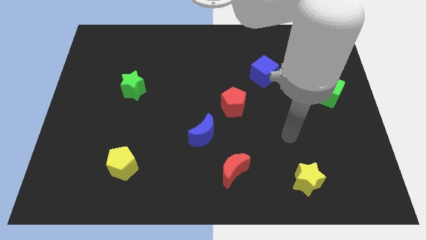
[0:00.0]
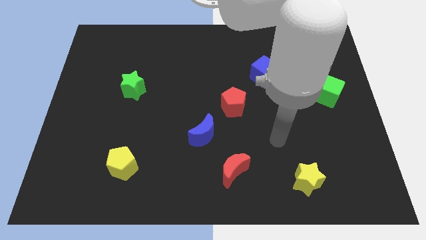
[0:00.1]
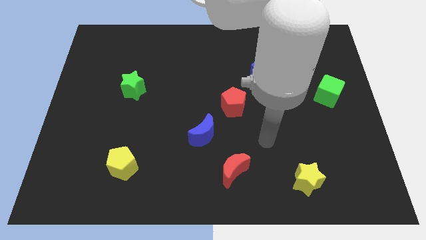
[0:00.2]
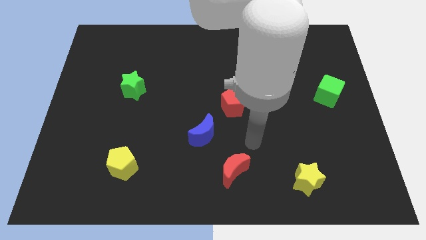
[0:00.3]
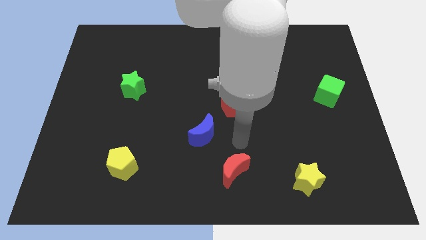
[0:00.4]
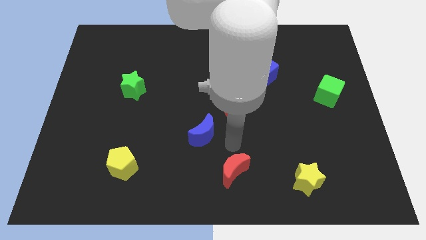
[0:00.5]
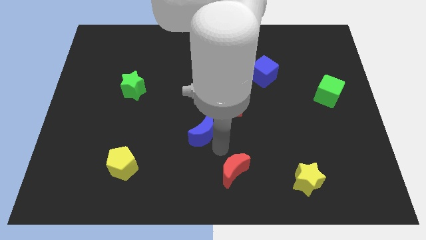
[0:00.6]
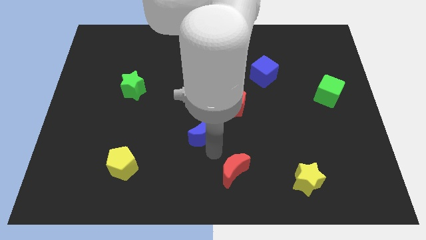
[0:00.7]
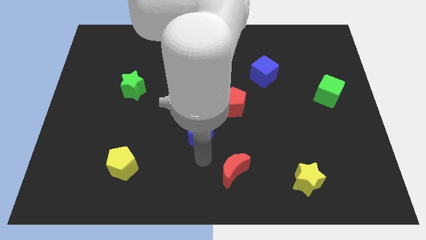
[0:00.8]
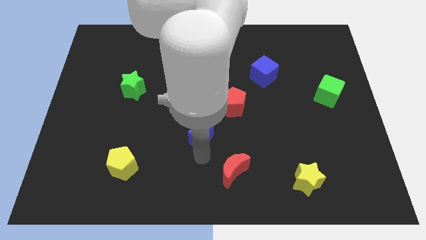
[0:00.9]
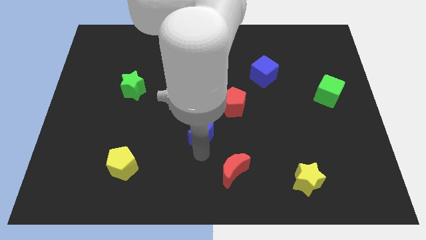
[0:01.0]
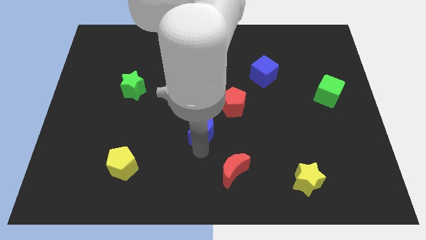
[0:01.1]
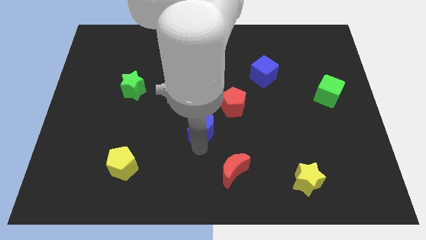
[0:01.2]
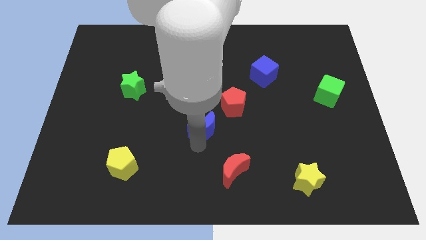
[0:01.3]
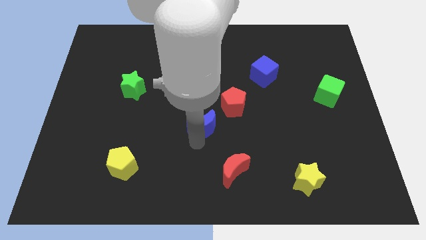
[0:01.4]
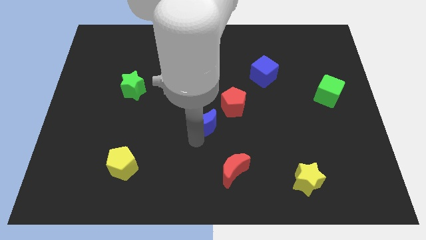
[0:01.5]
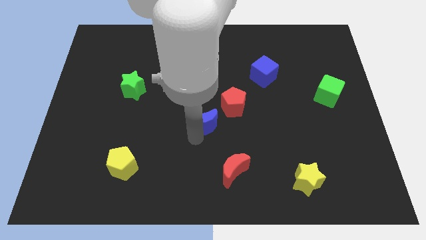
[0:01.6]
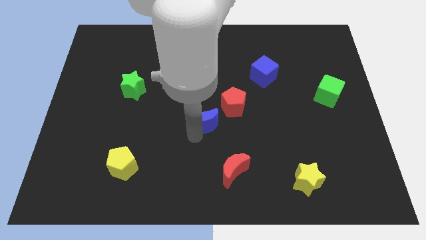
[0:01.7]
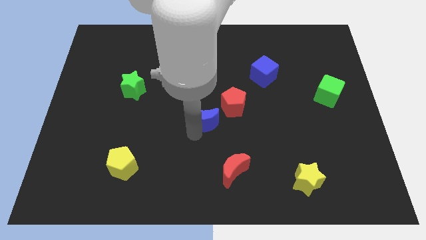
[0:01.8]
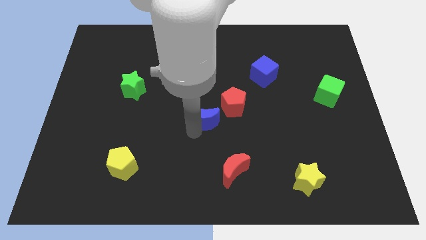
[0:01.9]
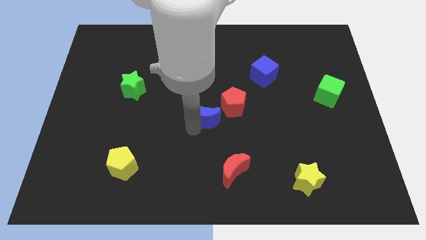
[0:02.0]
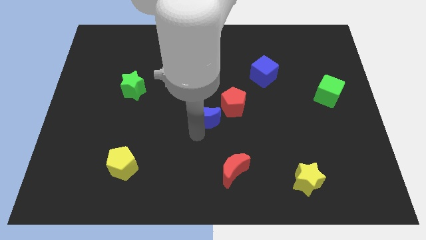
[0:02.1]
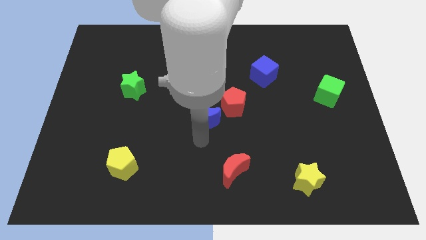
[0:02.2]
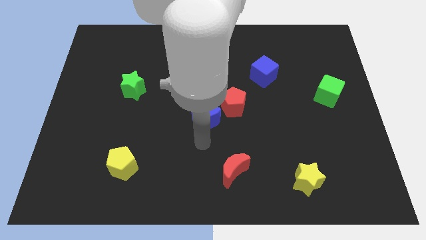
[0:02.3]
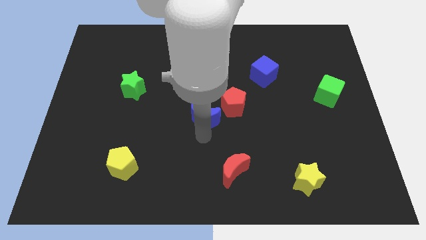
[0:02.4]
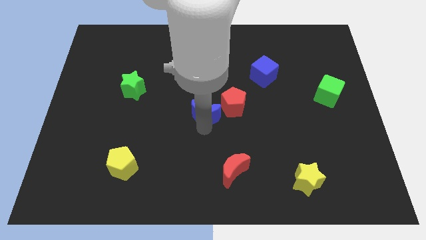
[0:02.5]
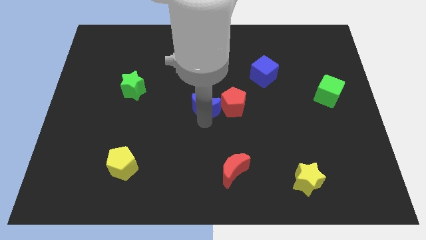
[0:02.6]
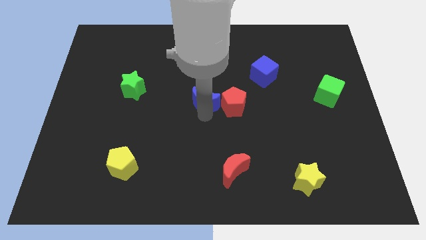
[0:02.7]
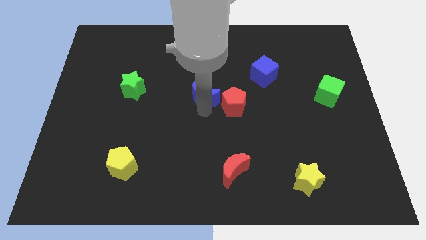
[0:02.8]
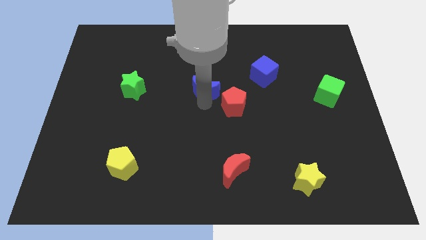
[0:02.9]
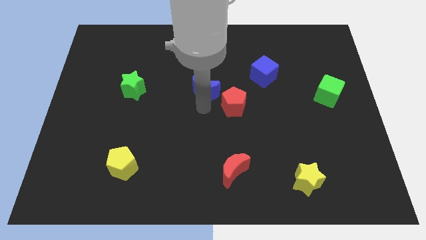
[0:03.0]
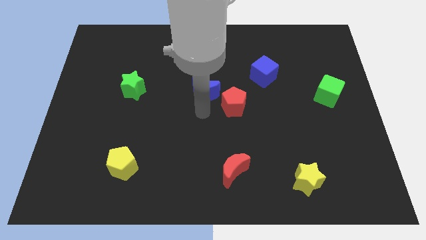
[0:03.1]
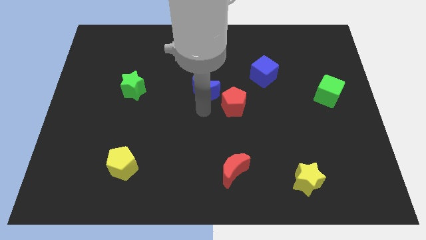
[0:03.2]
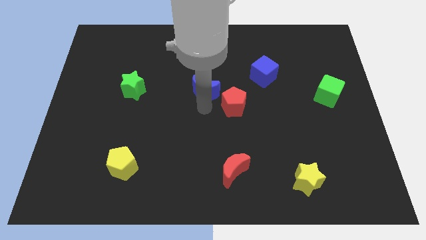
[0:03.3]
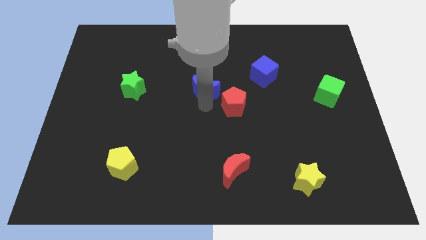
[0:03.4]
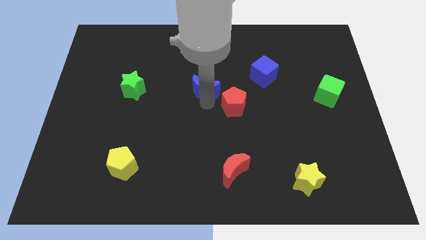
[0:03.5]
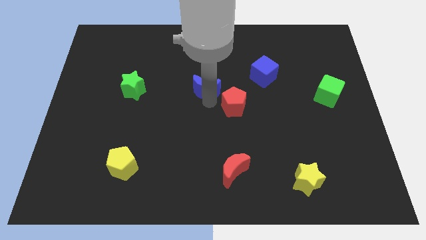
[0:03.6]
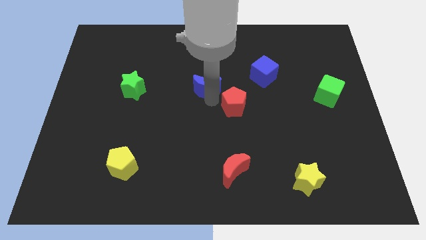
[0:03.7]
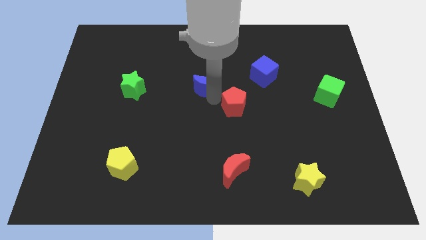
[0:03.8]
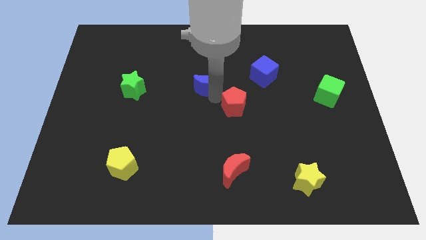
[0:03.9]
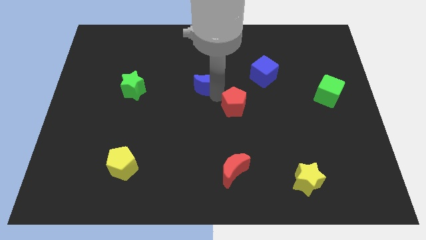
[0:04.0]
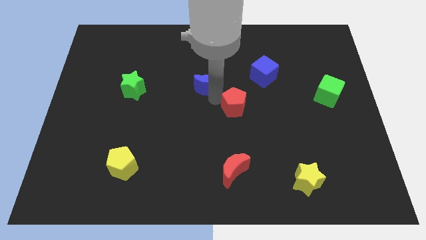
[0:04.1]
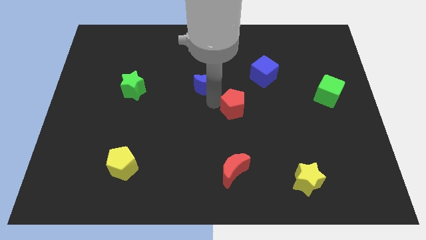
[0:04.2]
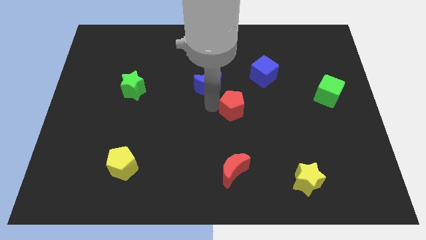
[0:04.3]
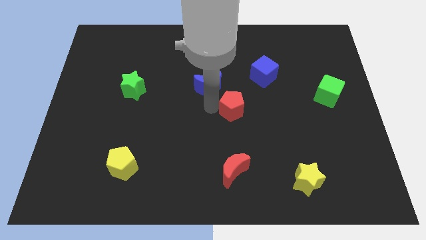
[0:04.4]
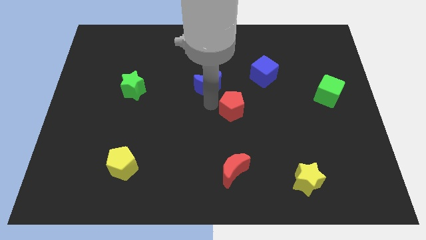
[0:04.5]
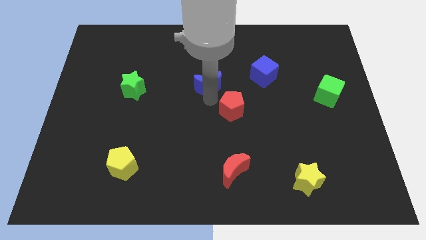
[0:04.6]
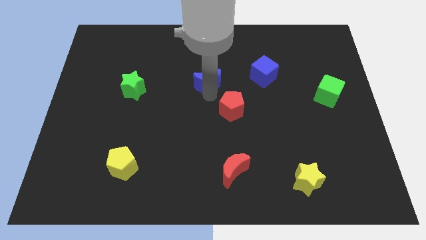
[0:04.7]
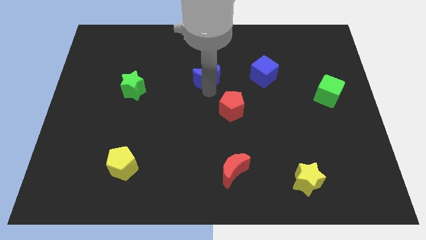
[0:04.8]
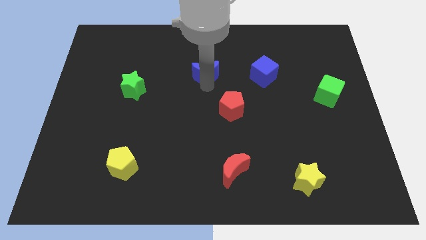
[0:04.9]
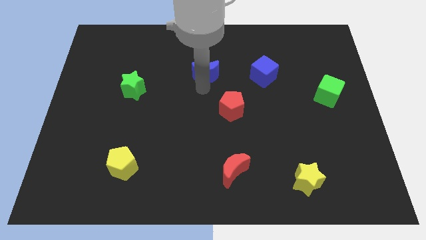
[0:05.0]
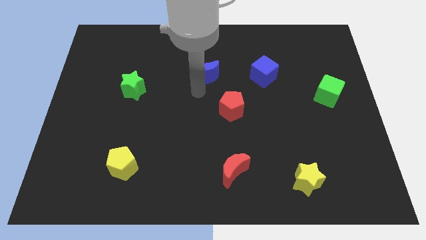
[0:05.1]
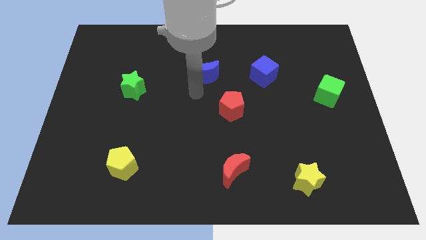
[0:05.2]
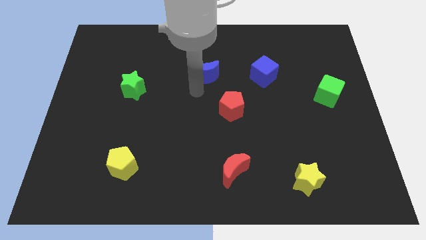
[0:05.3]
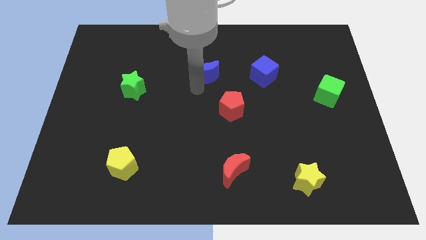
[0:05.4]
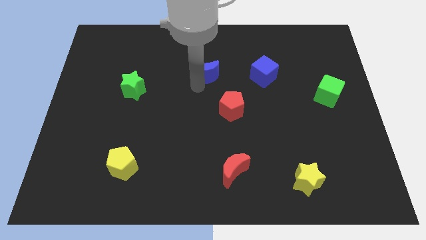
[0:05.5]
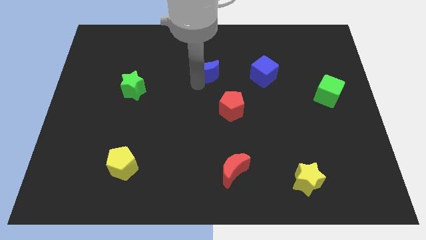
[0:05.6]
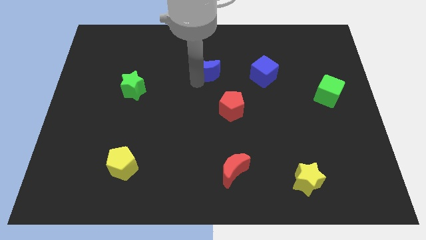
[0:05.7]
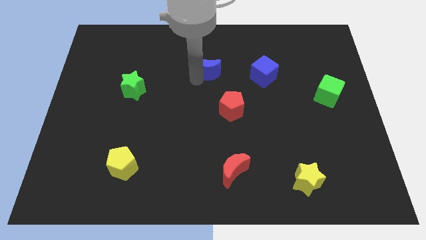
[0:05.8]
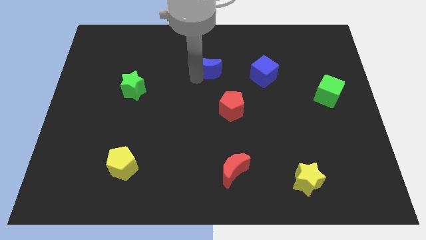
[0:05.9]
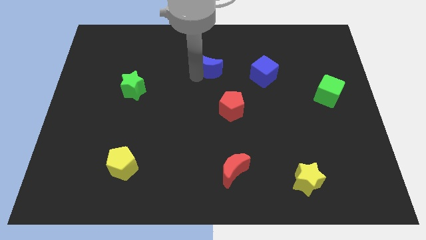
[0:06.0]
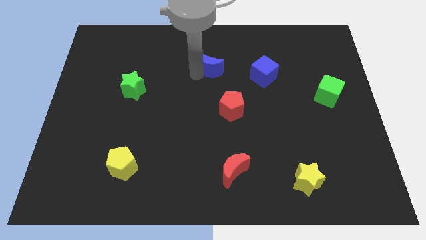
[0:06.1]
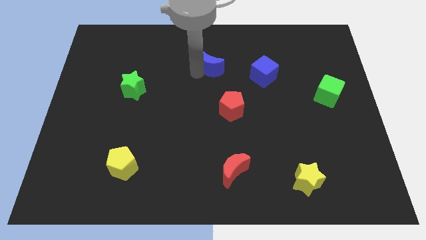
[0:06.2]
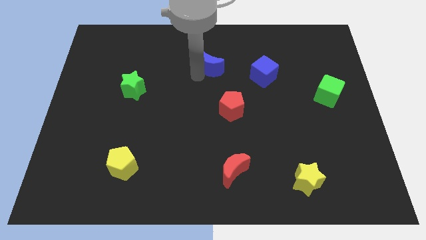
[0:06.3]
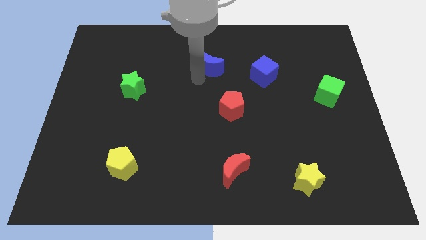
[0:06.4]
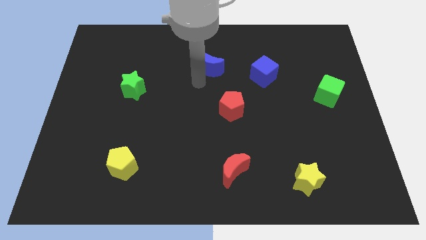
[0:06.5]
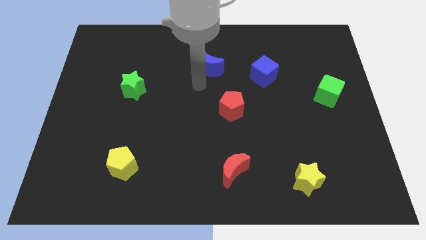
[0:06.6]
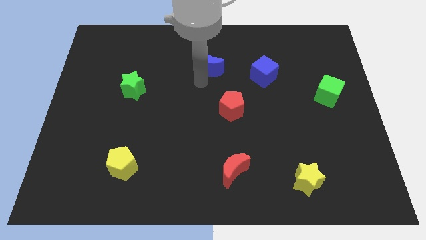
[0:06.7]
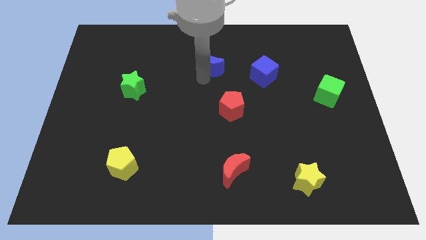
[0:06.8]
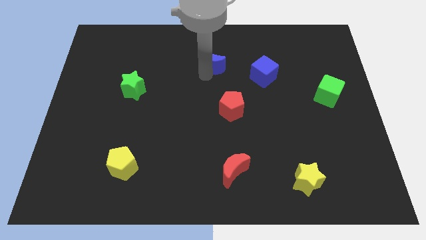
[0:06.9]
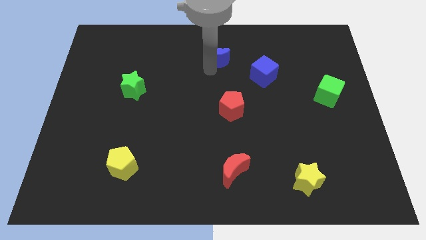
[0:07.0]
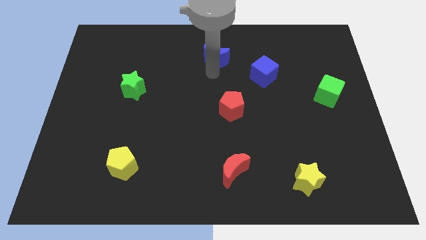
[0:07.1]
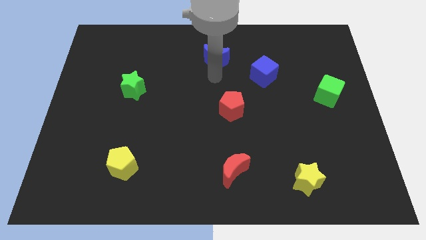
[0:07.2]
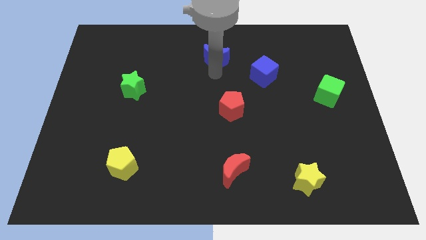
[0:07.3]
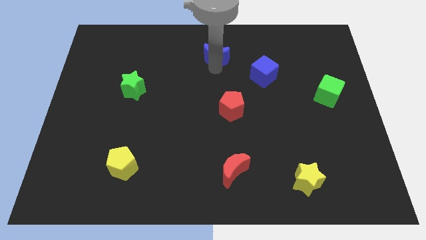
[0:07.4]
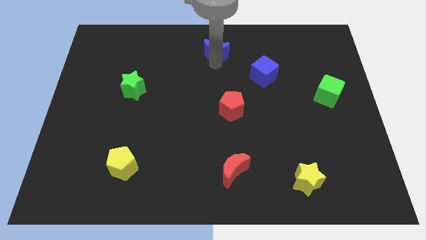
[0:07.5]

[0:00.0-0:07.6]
push the blue moon to the top side
